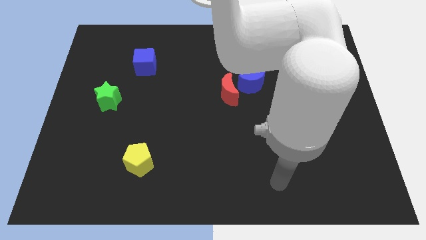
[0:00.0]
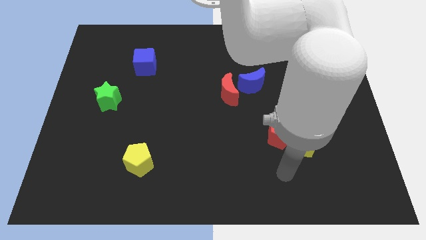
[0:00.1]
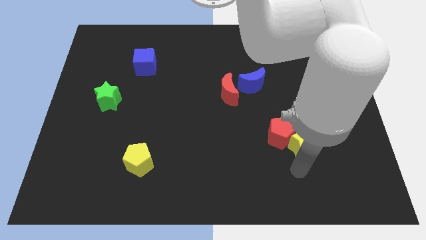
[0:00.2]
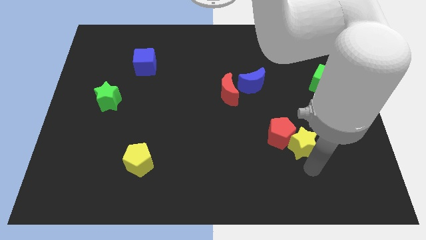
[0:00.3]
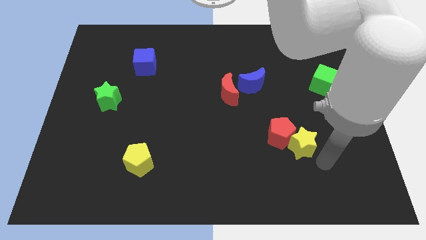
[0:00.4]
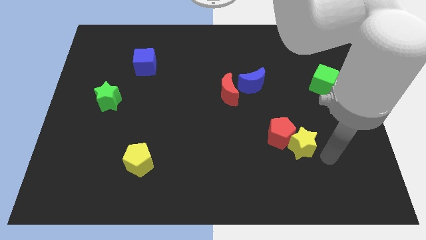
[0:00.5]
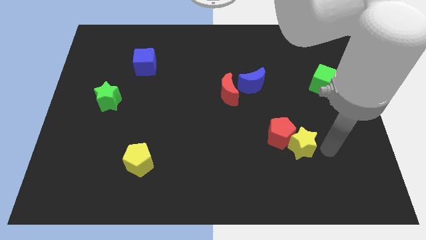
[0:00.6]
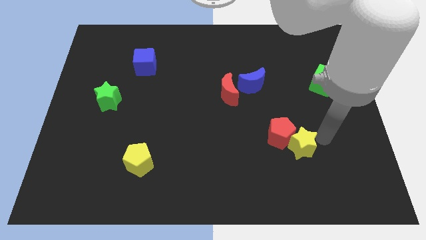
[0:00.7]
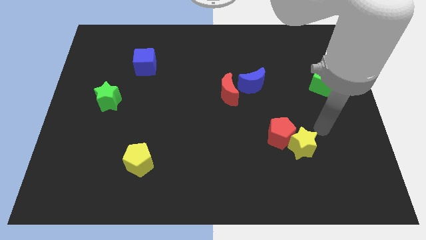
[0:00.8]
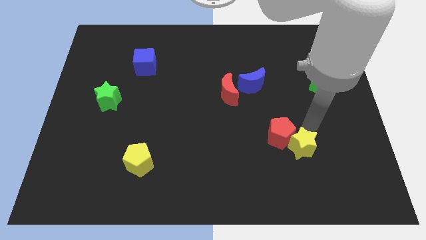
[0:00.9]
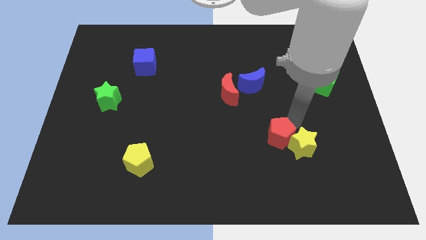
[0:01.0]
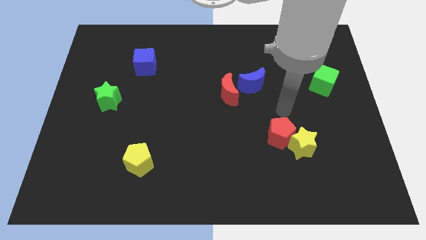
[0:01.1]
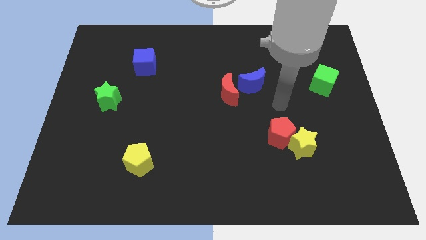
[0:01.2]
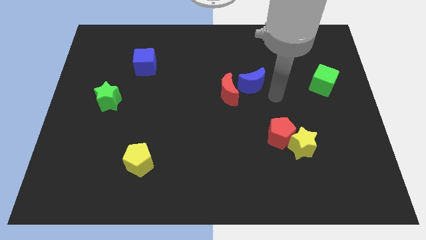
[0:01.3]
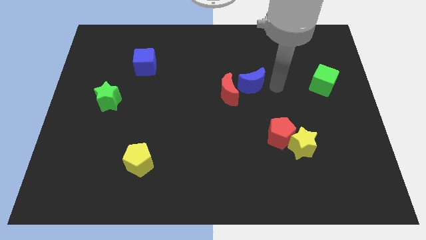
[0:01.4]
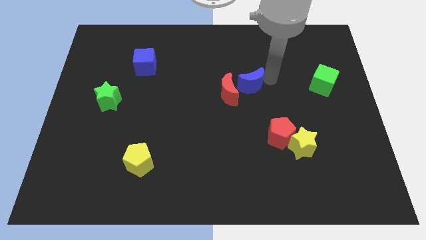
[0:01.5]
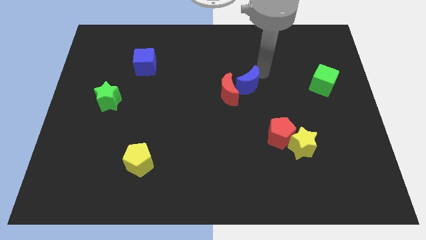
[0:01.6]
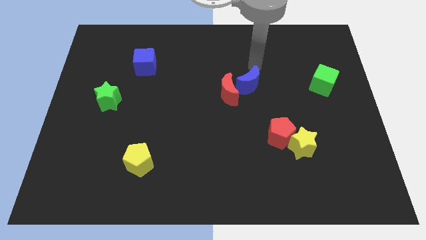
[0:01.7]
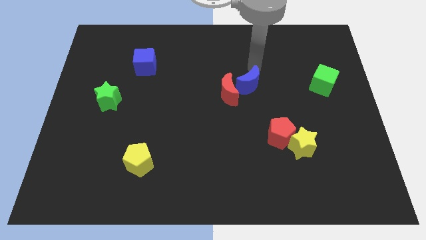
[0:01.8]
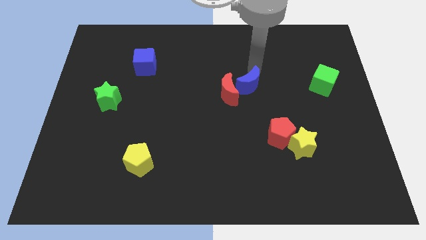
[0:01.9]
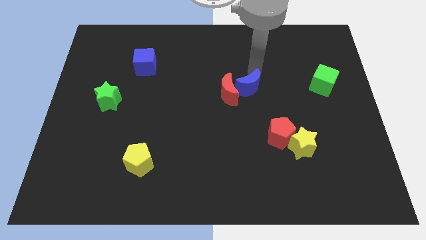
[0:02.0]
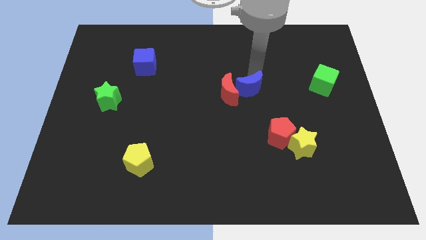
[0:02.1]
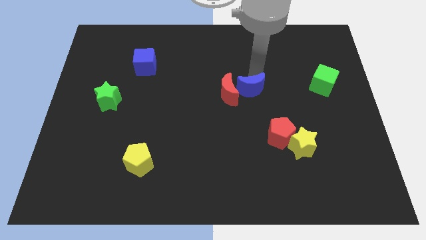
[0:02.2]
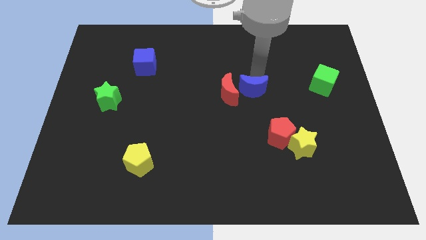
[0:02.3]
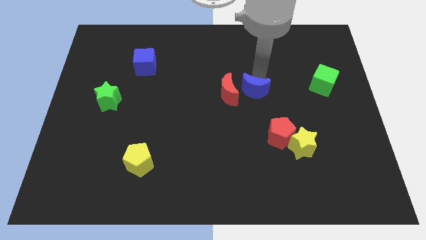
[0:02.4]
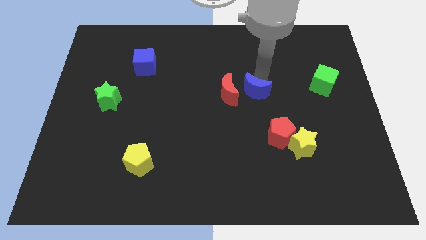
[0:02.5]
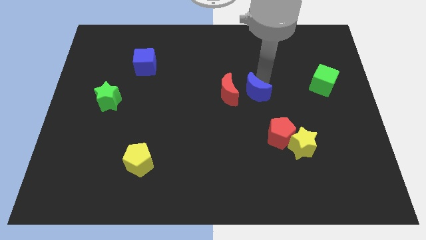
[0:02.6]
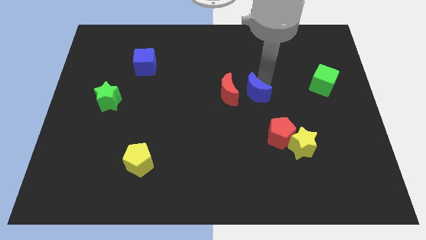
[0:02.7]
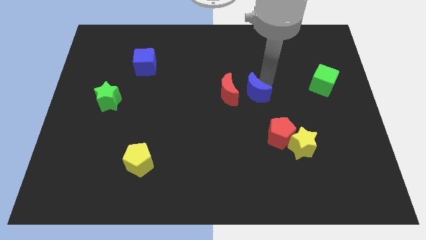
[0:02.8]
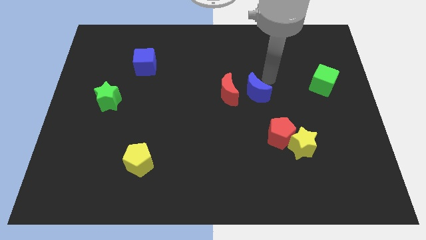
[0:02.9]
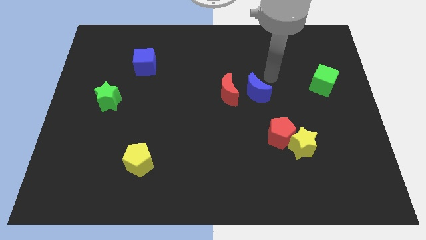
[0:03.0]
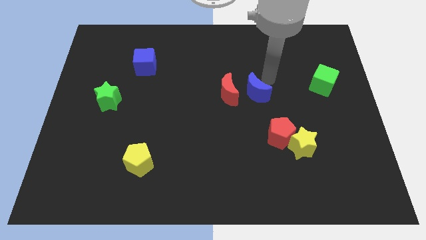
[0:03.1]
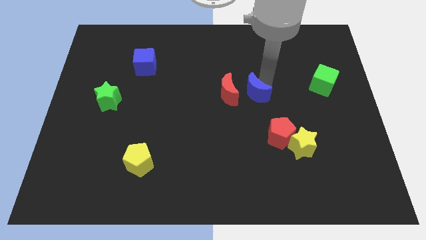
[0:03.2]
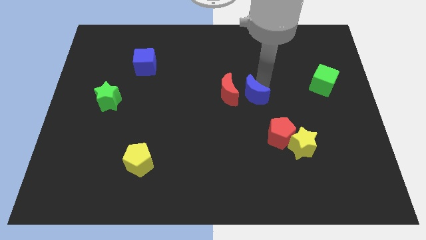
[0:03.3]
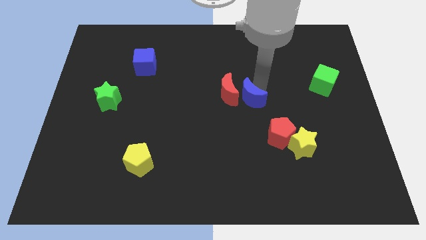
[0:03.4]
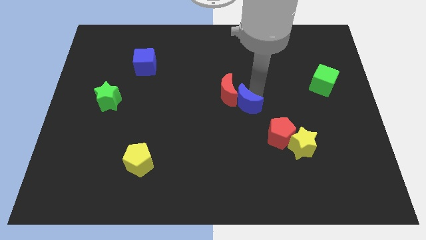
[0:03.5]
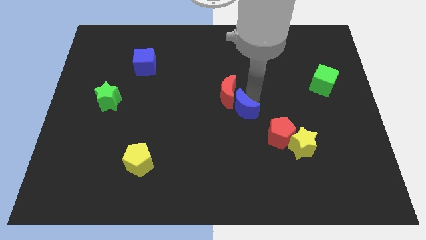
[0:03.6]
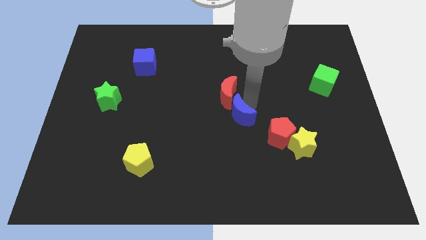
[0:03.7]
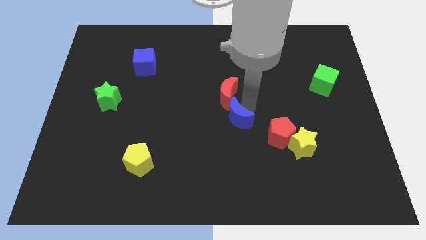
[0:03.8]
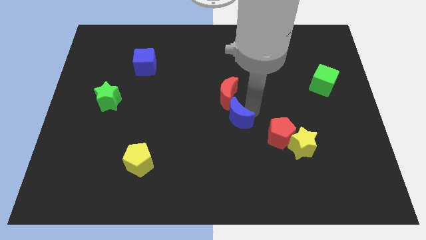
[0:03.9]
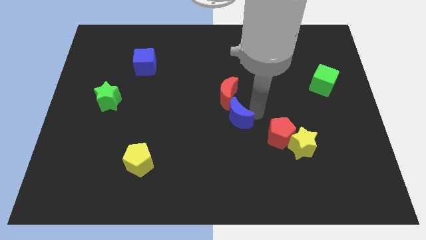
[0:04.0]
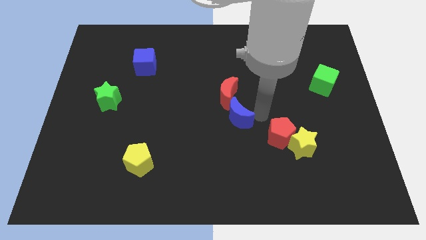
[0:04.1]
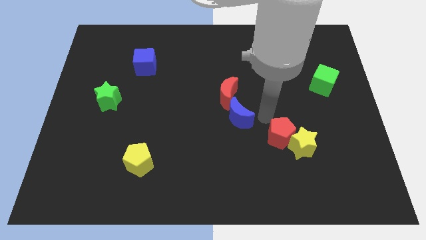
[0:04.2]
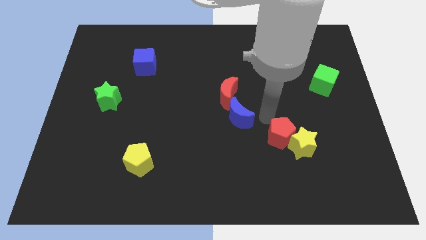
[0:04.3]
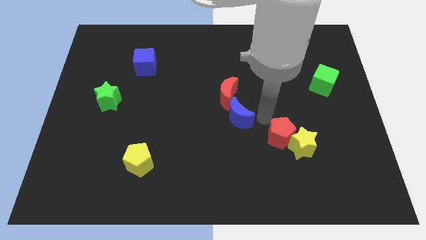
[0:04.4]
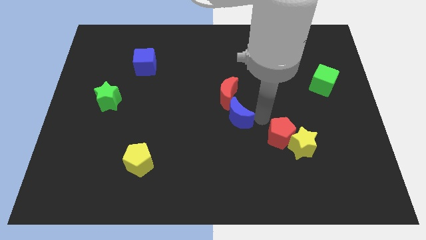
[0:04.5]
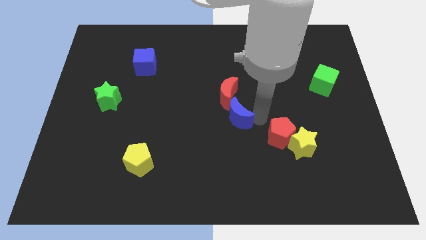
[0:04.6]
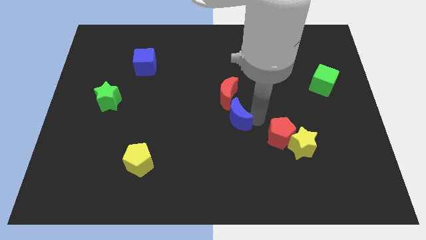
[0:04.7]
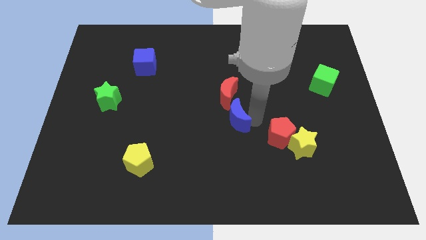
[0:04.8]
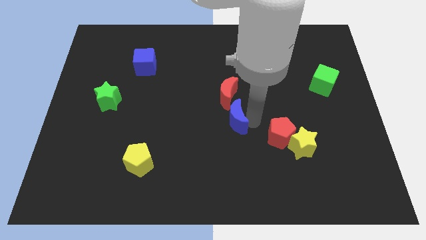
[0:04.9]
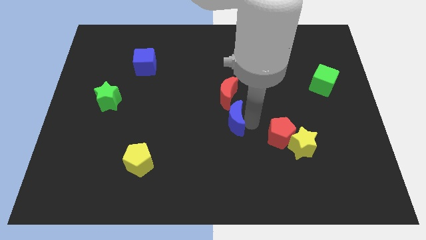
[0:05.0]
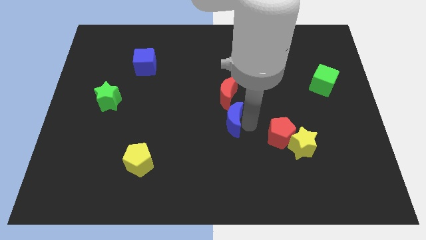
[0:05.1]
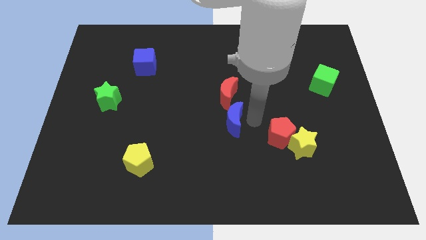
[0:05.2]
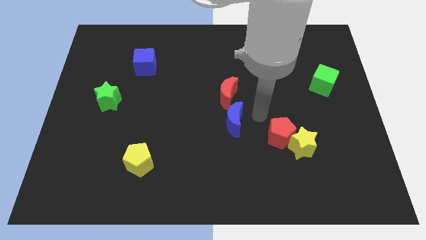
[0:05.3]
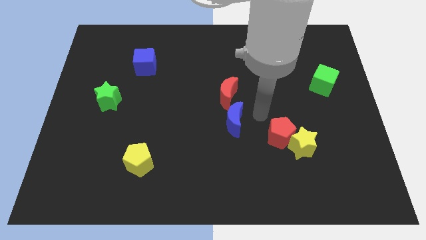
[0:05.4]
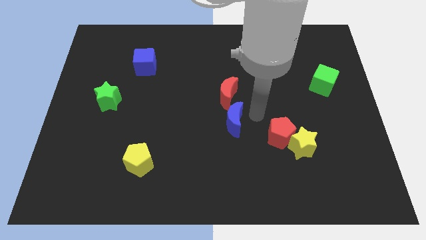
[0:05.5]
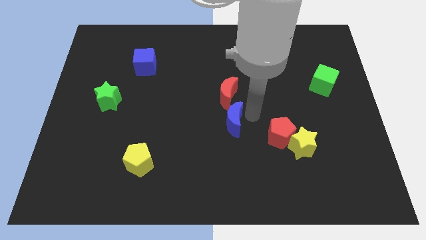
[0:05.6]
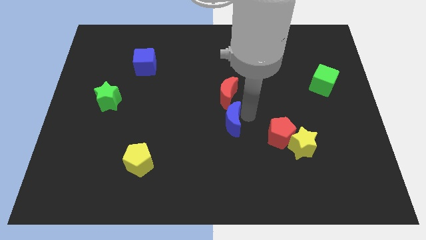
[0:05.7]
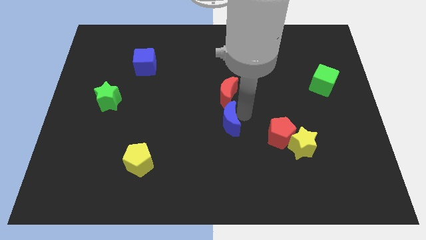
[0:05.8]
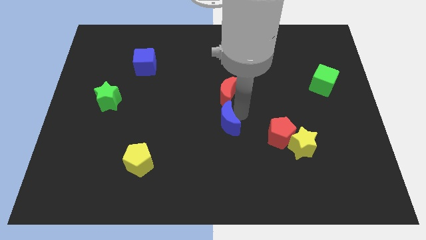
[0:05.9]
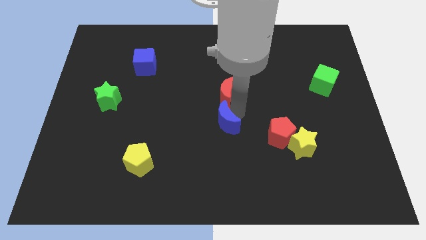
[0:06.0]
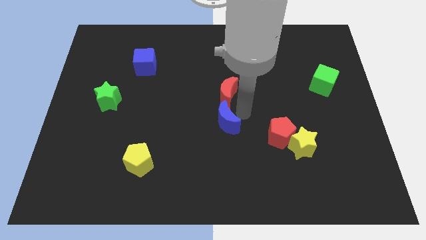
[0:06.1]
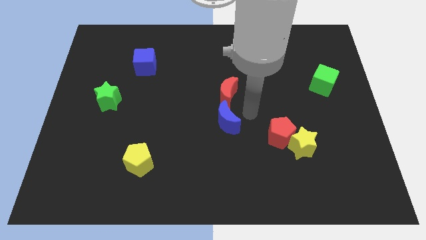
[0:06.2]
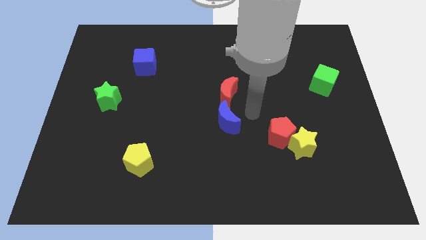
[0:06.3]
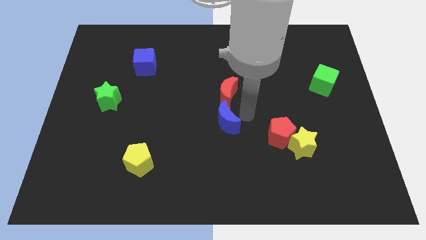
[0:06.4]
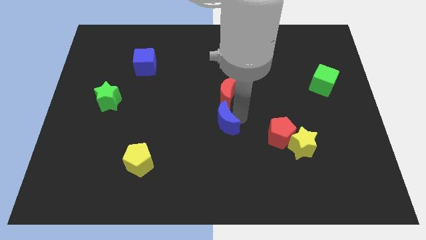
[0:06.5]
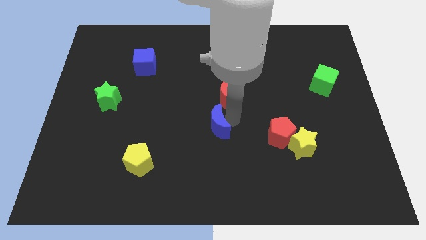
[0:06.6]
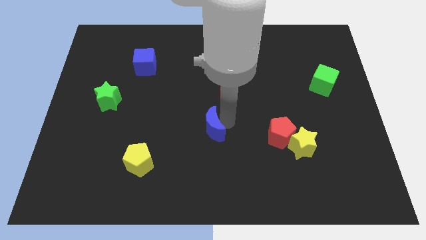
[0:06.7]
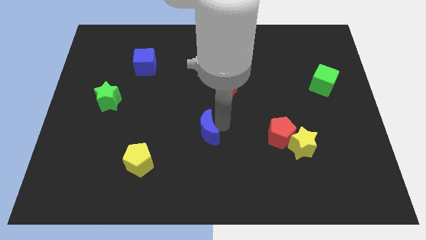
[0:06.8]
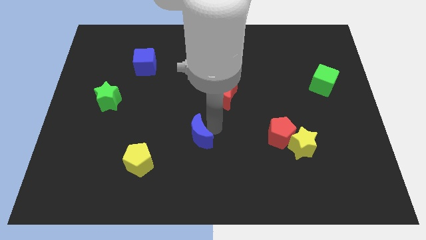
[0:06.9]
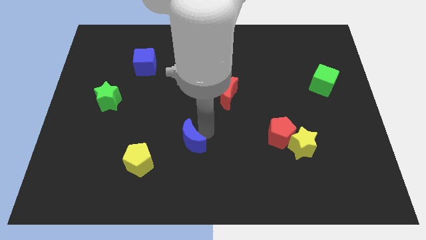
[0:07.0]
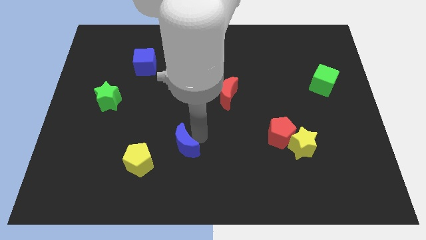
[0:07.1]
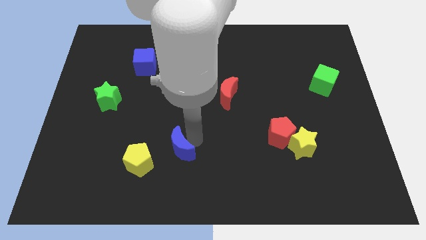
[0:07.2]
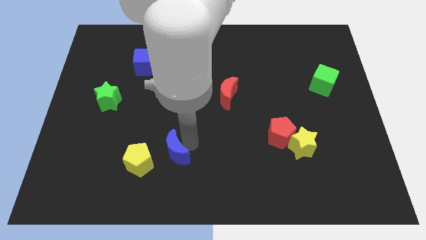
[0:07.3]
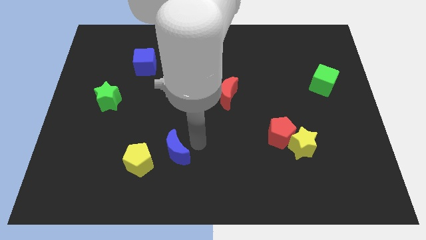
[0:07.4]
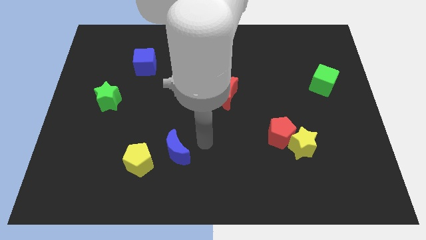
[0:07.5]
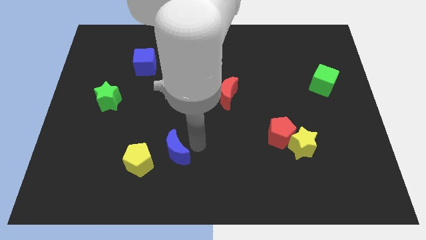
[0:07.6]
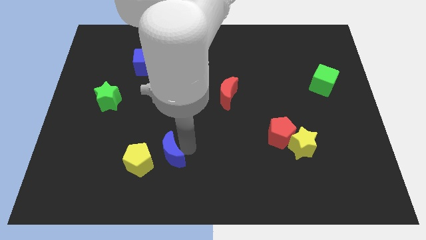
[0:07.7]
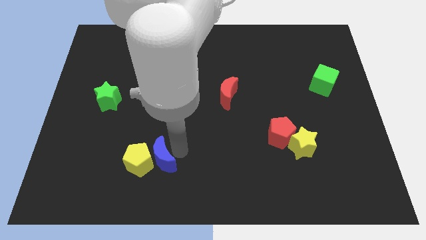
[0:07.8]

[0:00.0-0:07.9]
move the blue moon next to the yellow pentagon
